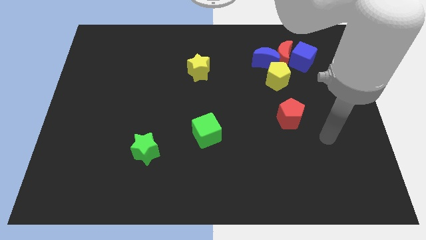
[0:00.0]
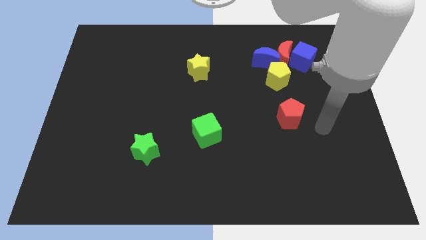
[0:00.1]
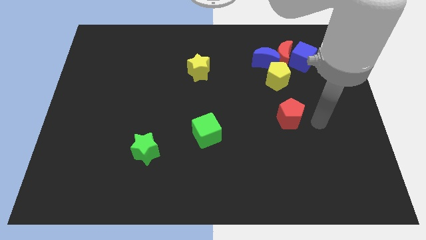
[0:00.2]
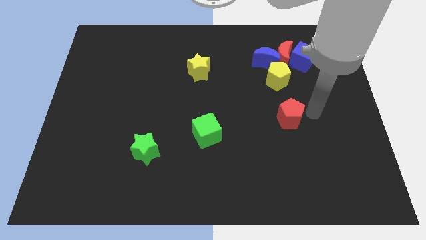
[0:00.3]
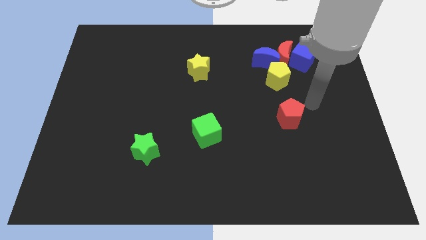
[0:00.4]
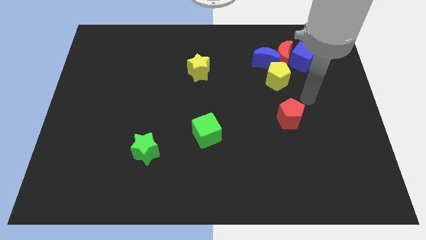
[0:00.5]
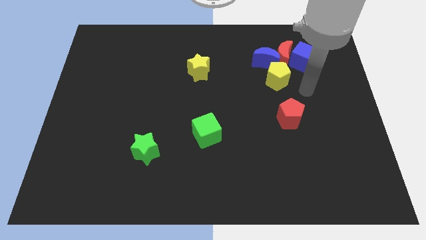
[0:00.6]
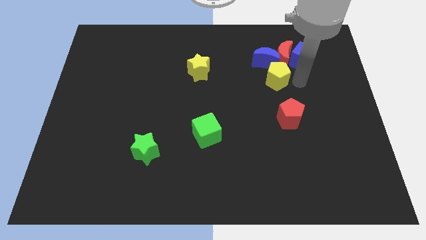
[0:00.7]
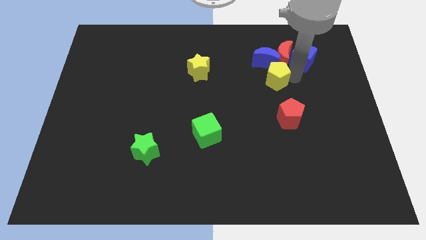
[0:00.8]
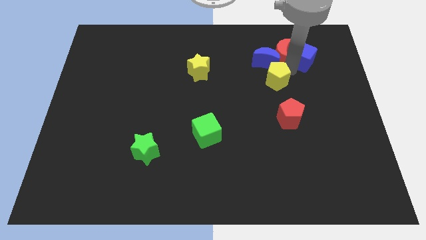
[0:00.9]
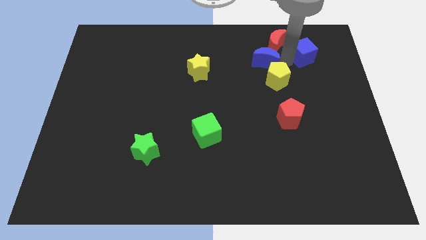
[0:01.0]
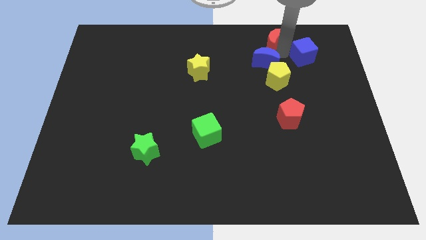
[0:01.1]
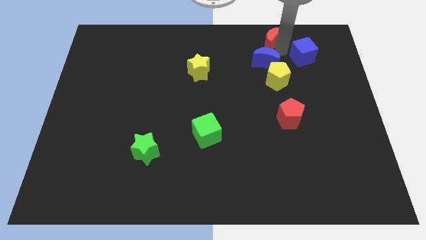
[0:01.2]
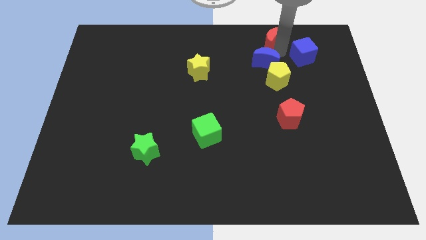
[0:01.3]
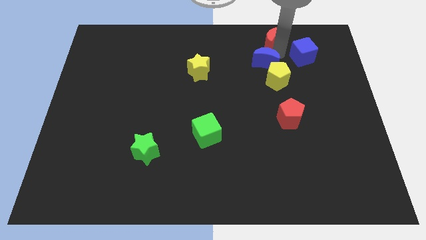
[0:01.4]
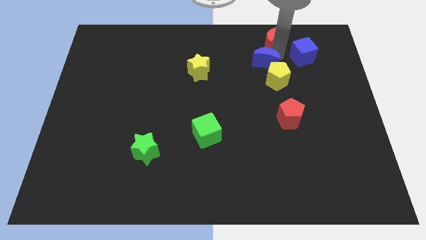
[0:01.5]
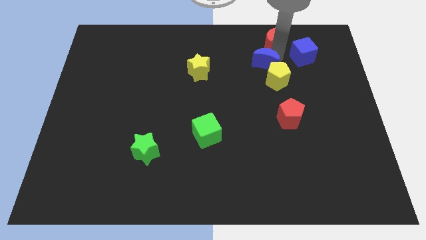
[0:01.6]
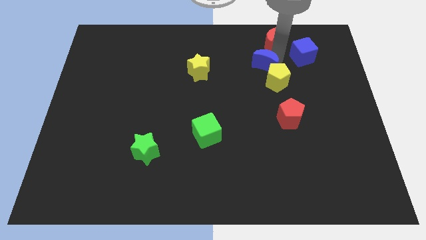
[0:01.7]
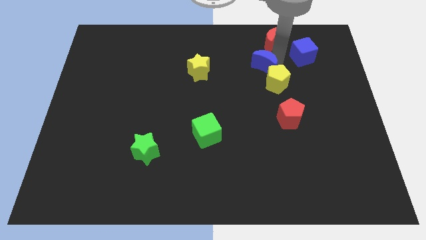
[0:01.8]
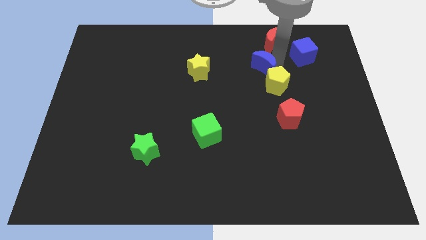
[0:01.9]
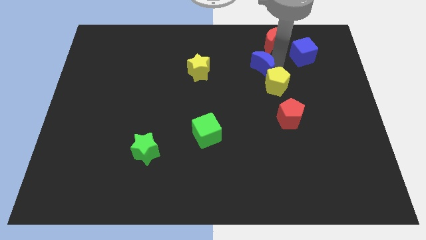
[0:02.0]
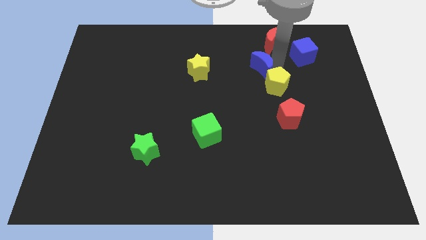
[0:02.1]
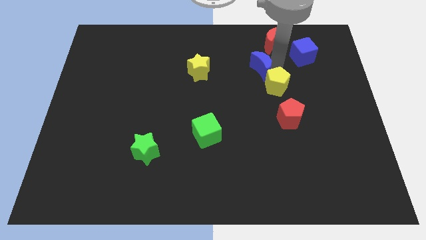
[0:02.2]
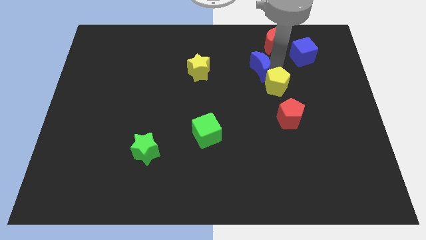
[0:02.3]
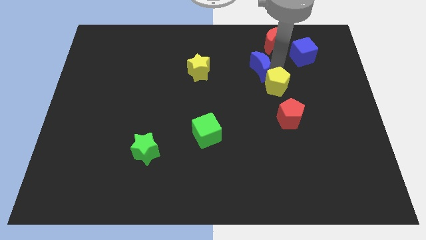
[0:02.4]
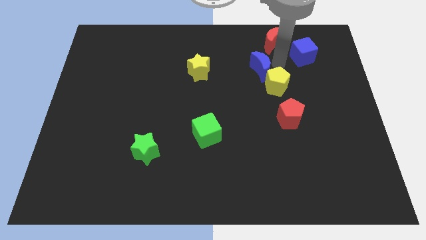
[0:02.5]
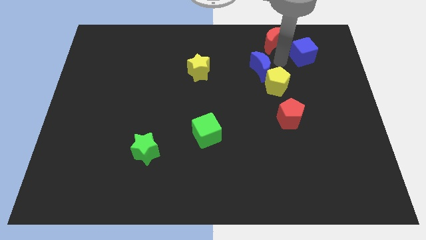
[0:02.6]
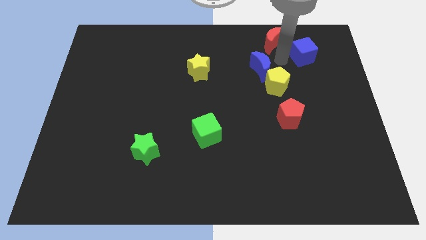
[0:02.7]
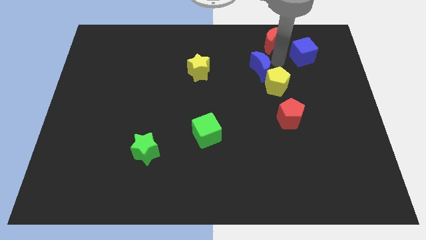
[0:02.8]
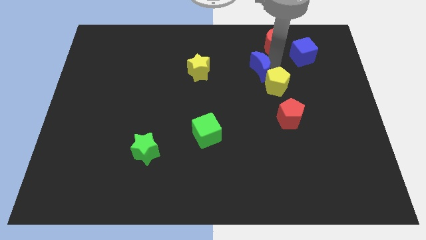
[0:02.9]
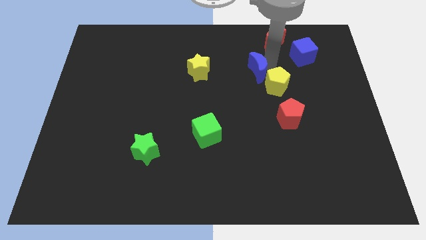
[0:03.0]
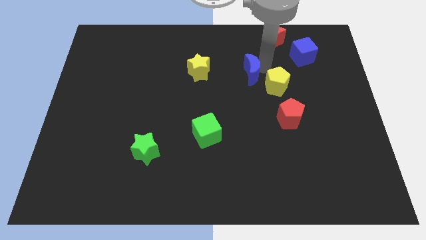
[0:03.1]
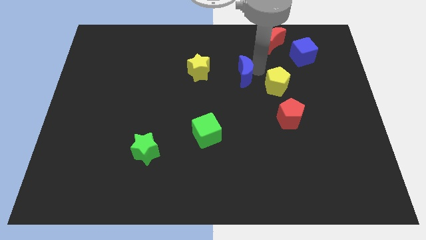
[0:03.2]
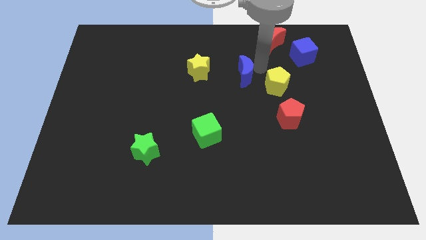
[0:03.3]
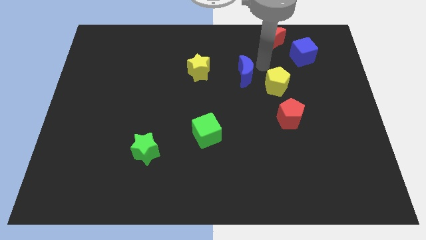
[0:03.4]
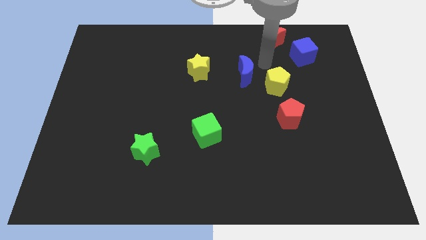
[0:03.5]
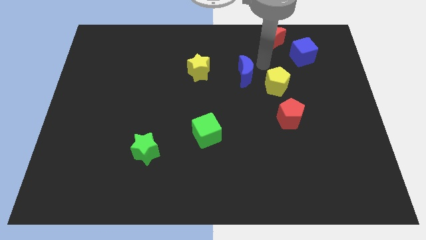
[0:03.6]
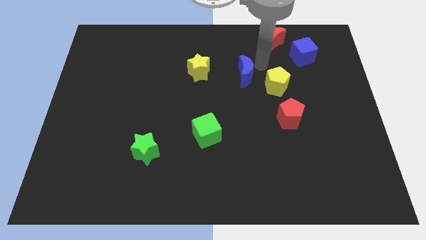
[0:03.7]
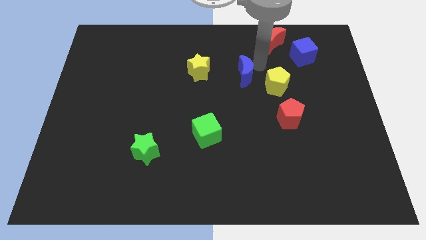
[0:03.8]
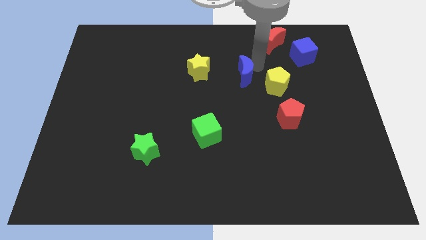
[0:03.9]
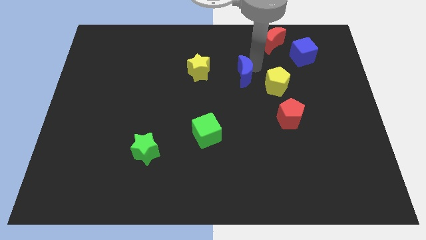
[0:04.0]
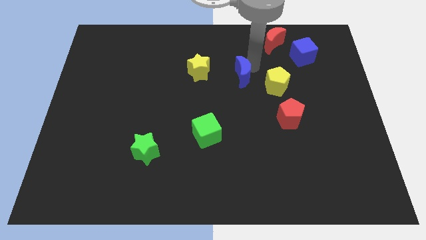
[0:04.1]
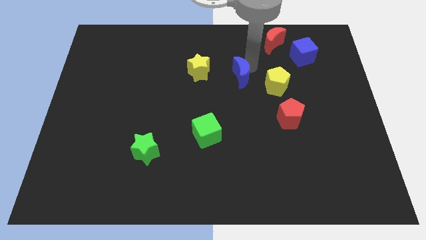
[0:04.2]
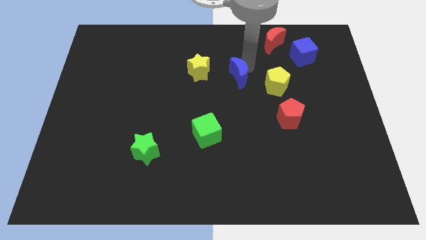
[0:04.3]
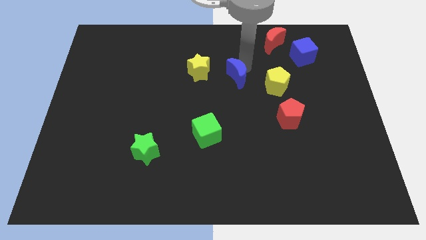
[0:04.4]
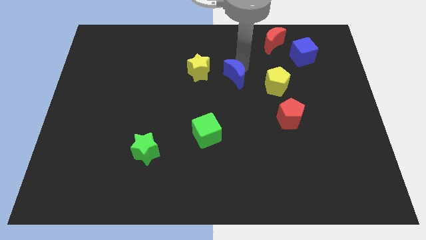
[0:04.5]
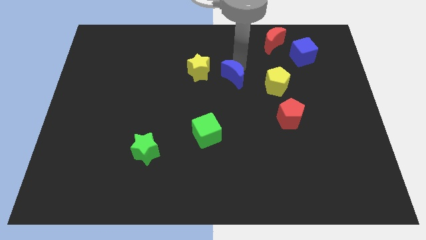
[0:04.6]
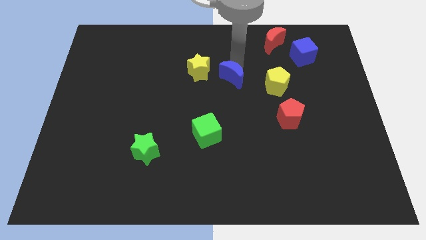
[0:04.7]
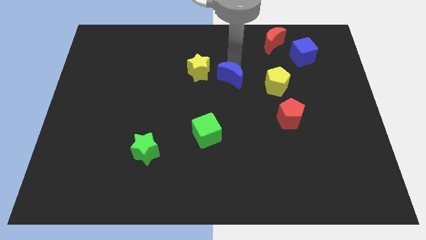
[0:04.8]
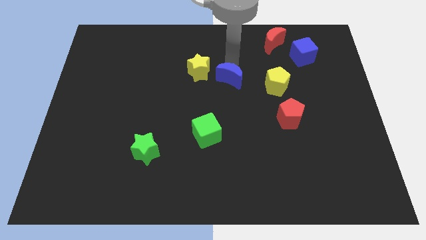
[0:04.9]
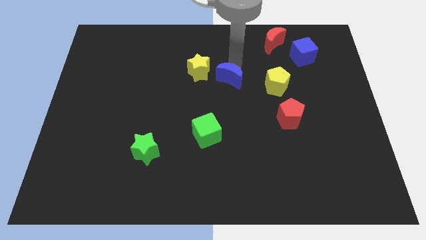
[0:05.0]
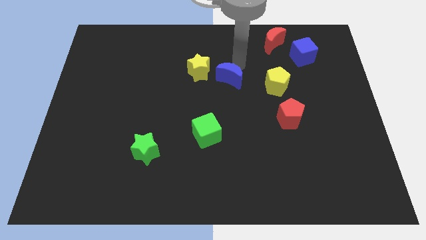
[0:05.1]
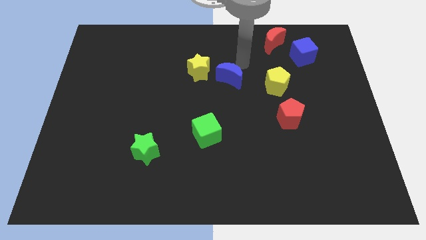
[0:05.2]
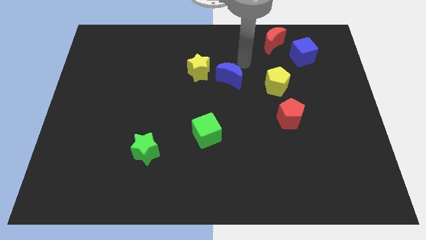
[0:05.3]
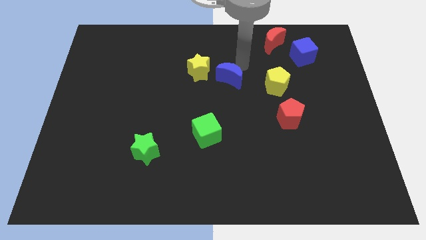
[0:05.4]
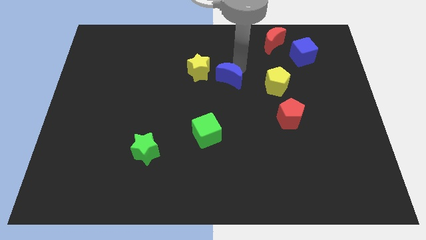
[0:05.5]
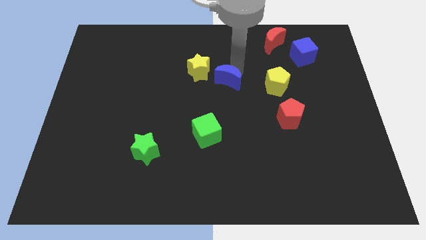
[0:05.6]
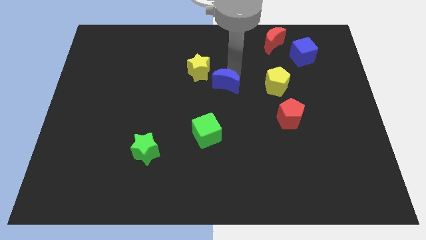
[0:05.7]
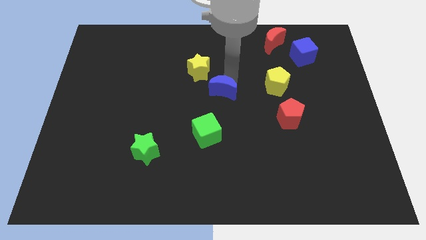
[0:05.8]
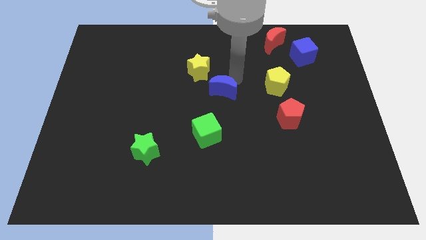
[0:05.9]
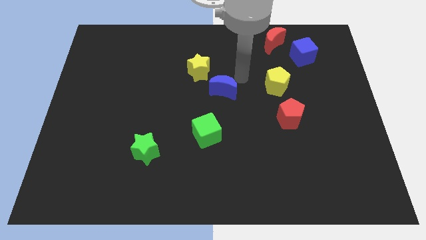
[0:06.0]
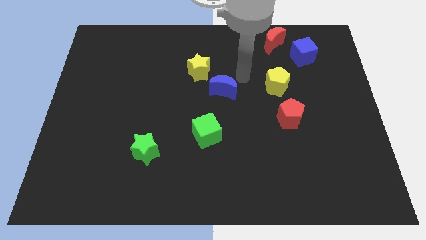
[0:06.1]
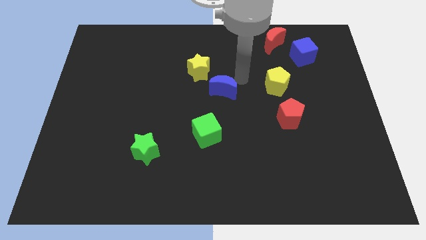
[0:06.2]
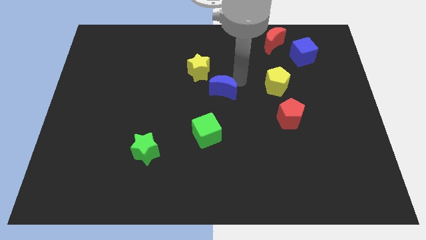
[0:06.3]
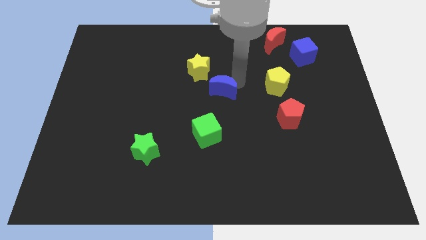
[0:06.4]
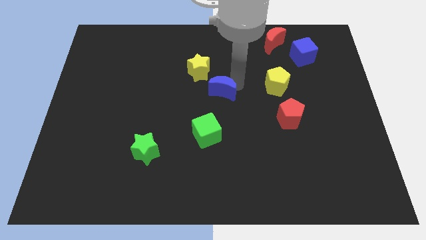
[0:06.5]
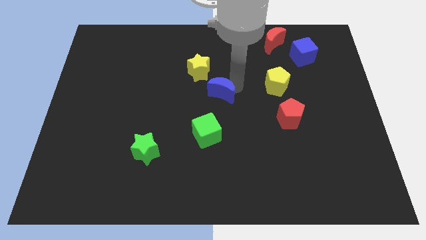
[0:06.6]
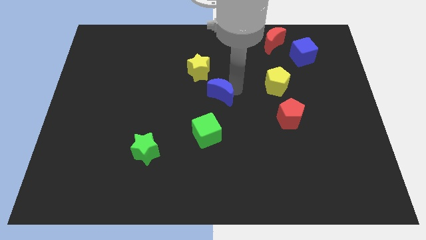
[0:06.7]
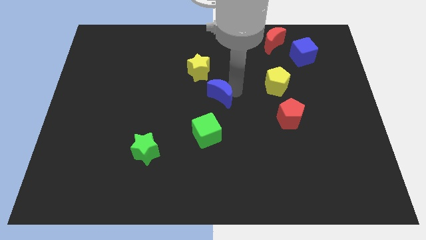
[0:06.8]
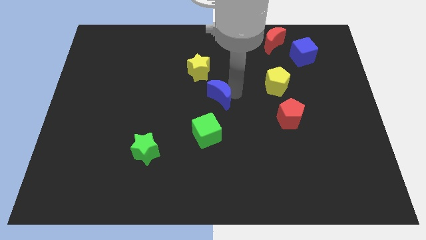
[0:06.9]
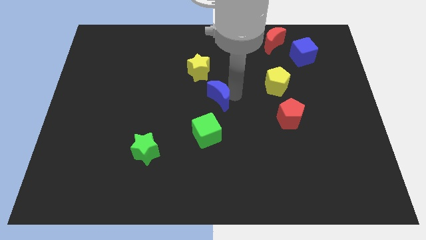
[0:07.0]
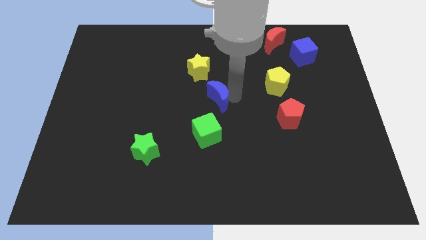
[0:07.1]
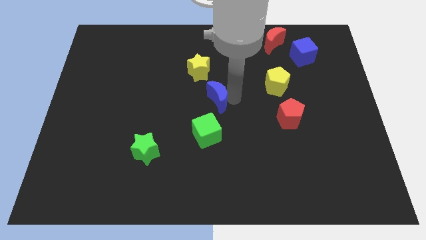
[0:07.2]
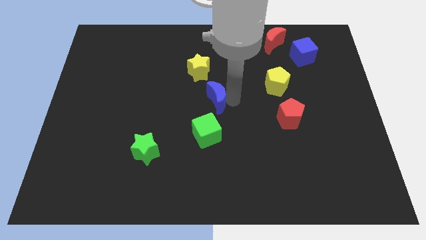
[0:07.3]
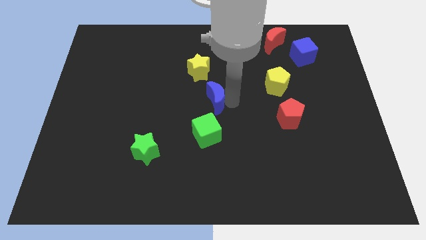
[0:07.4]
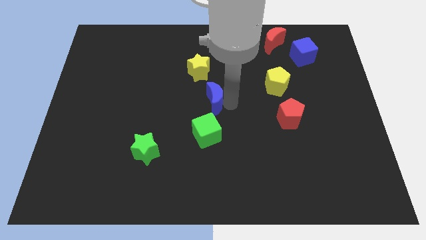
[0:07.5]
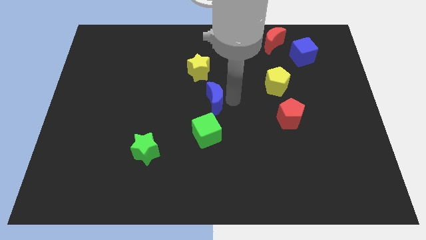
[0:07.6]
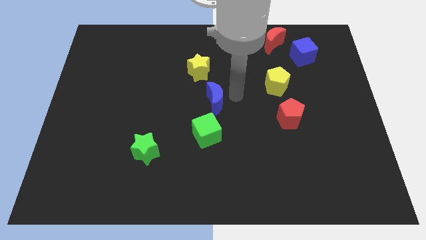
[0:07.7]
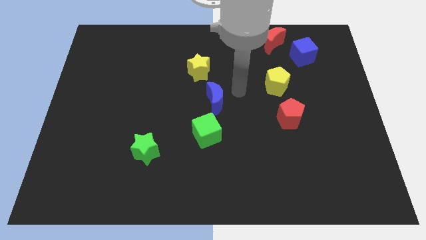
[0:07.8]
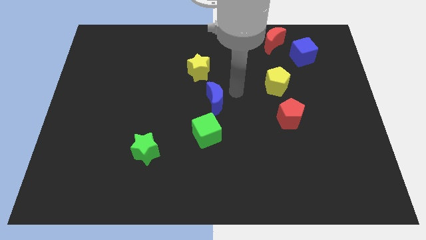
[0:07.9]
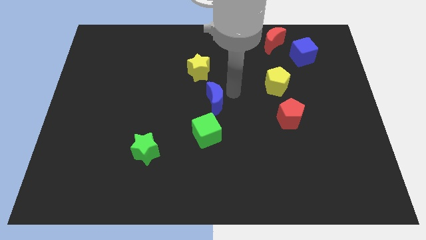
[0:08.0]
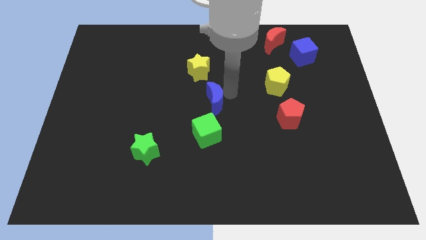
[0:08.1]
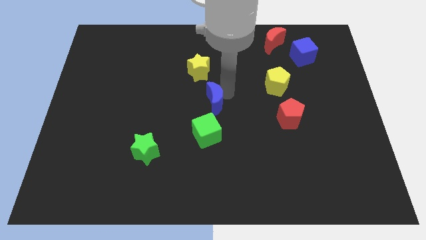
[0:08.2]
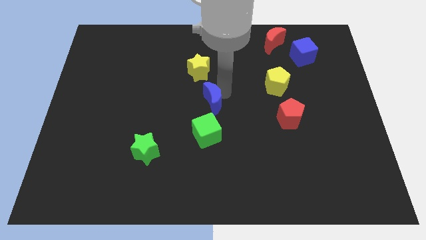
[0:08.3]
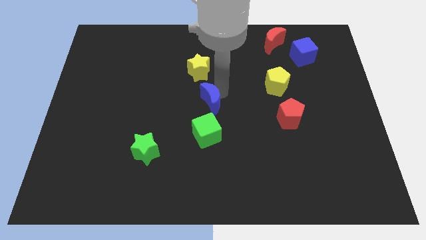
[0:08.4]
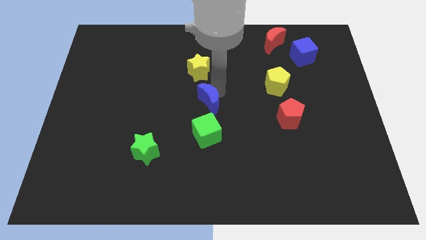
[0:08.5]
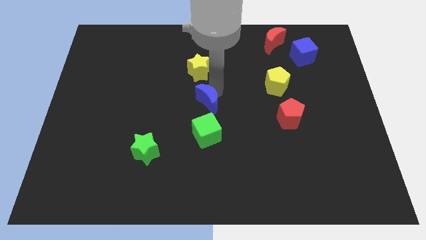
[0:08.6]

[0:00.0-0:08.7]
slide the blue moon downwards and to the left diagonally
